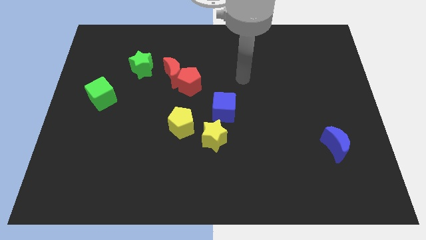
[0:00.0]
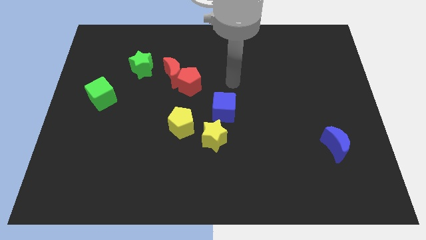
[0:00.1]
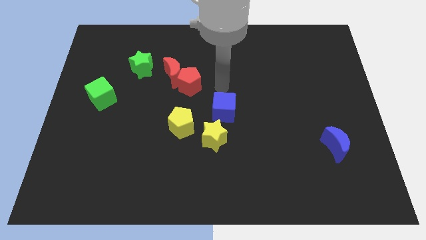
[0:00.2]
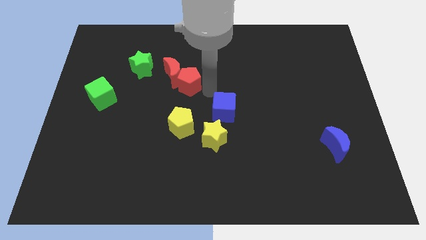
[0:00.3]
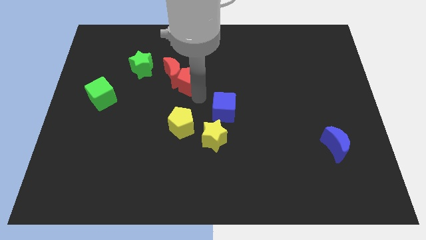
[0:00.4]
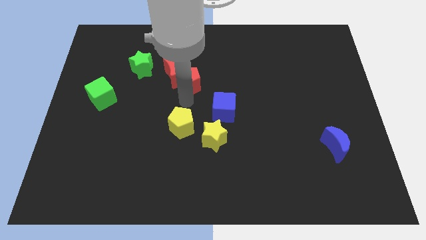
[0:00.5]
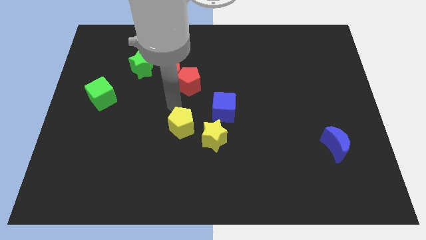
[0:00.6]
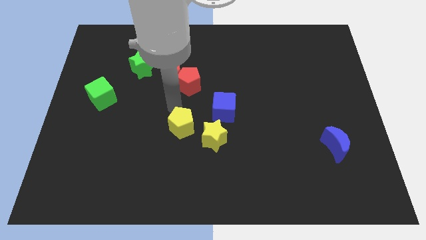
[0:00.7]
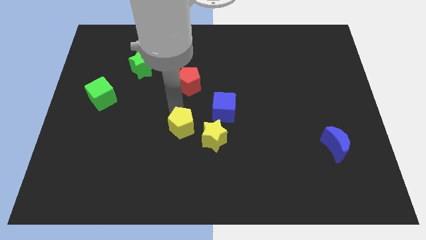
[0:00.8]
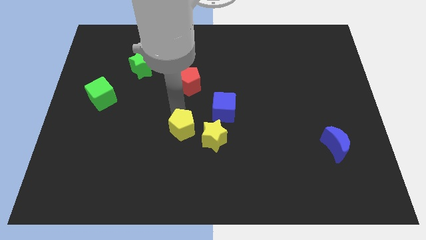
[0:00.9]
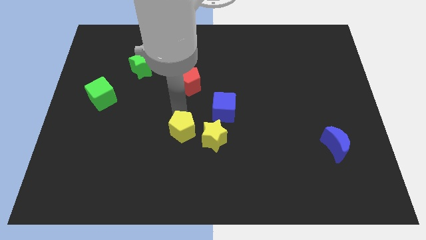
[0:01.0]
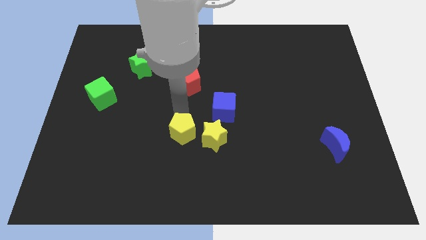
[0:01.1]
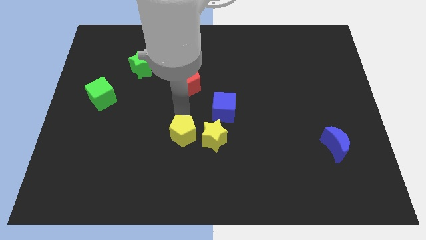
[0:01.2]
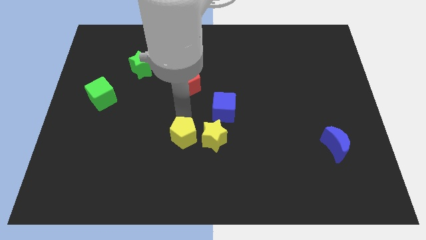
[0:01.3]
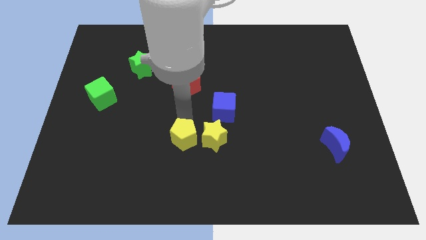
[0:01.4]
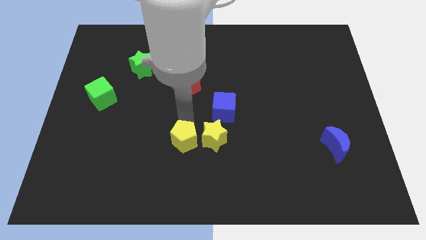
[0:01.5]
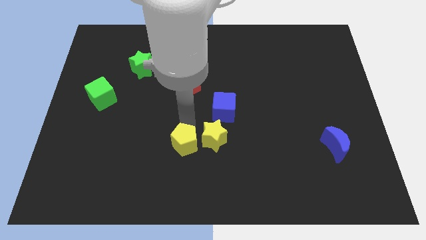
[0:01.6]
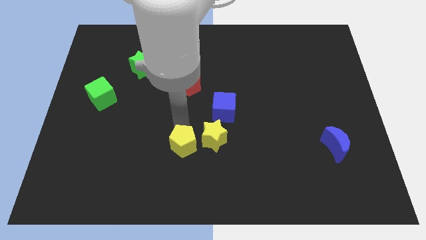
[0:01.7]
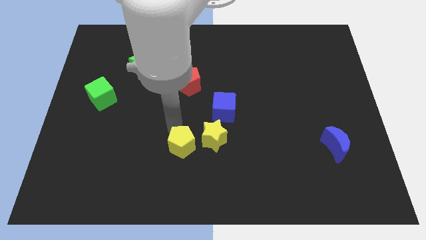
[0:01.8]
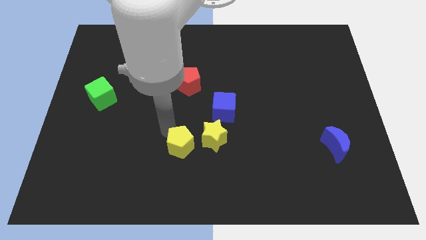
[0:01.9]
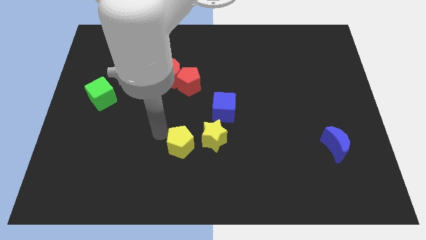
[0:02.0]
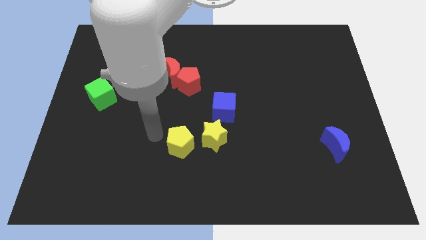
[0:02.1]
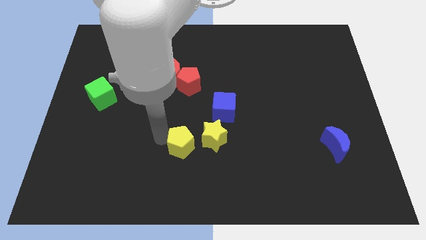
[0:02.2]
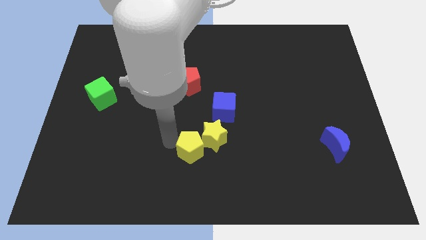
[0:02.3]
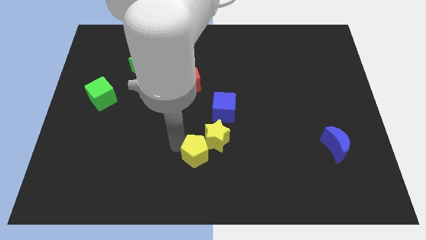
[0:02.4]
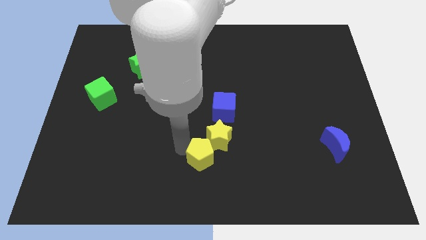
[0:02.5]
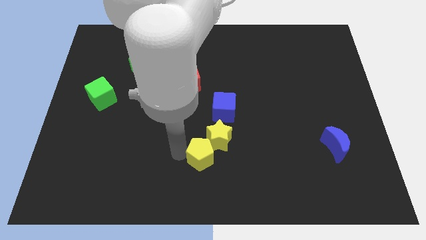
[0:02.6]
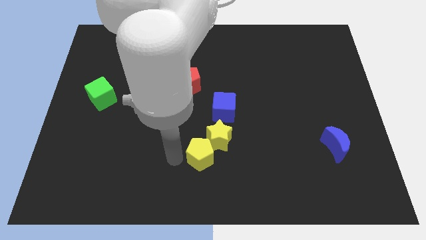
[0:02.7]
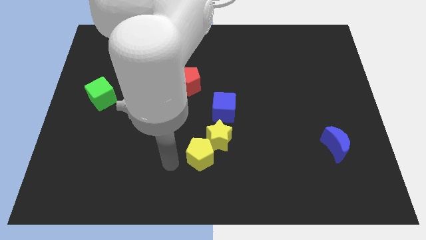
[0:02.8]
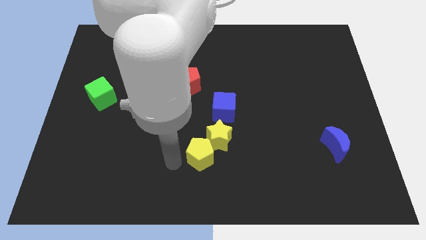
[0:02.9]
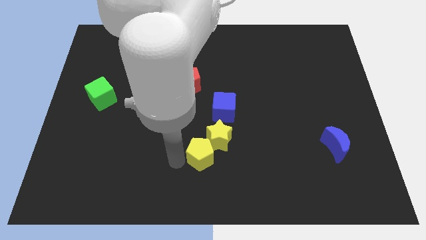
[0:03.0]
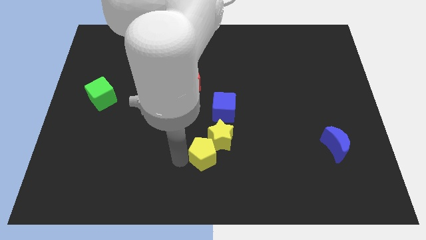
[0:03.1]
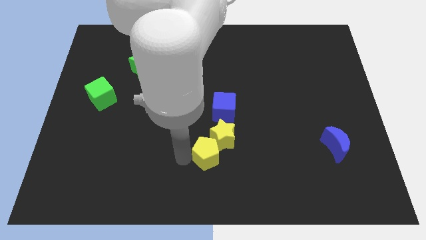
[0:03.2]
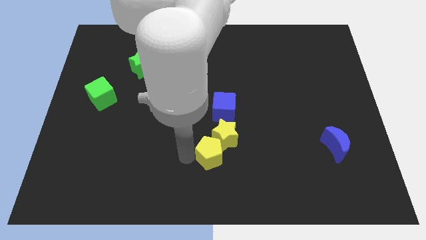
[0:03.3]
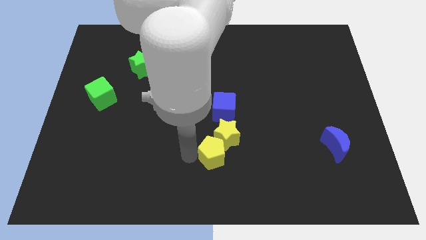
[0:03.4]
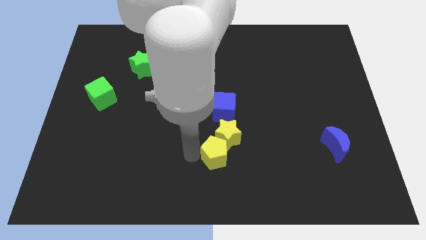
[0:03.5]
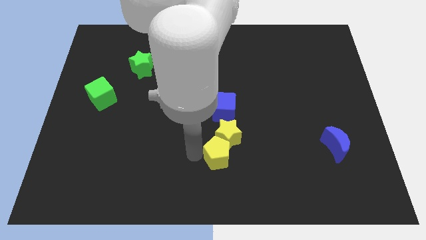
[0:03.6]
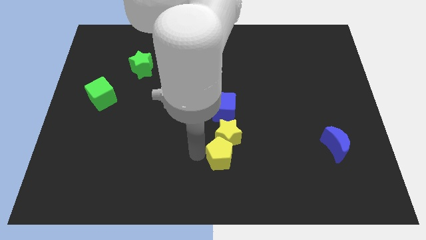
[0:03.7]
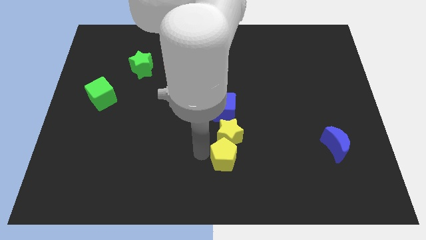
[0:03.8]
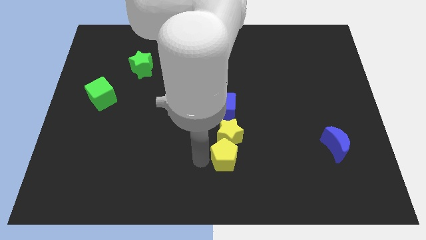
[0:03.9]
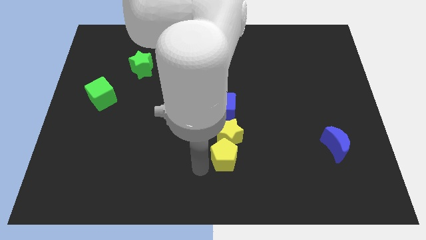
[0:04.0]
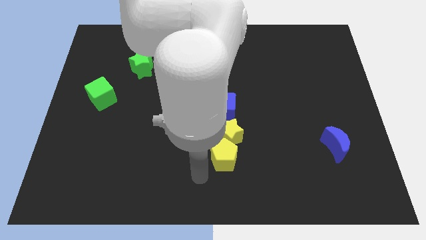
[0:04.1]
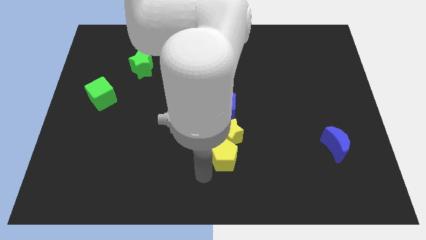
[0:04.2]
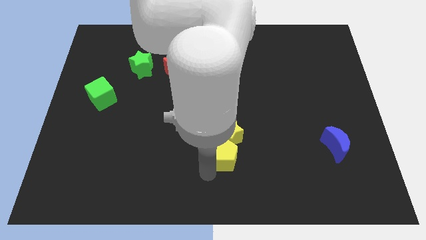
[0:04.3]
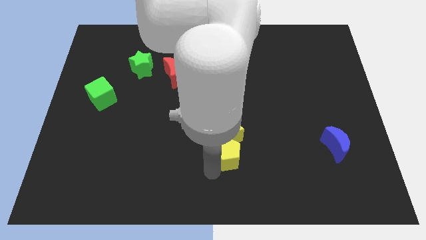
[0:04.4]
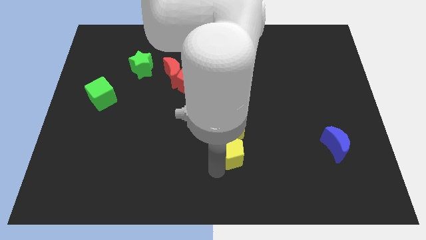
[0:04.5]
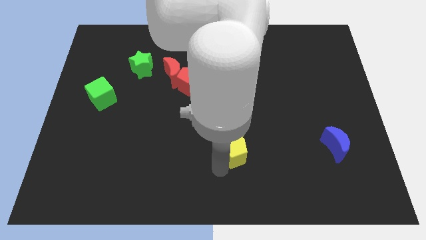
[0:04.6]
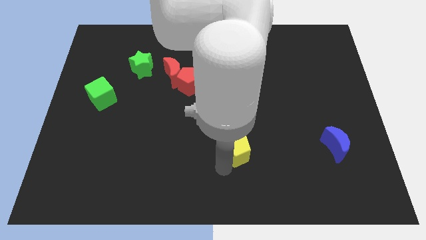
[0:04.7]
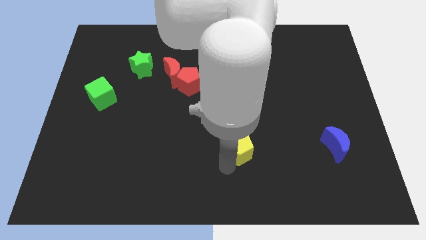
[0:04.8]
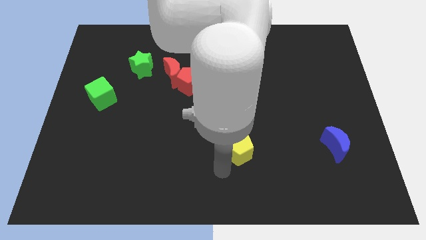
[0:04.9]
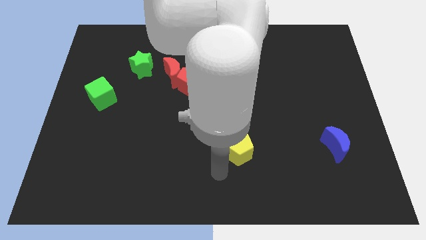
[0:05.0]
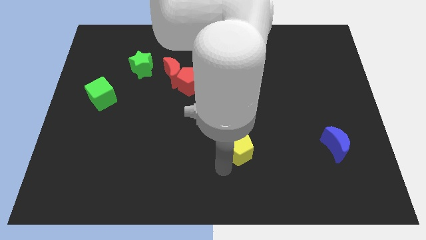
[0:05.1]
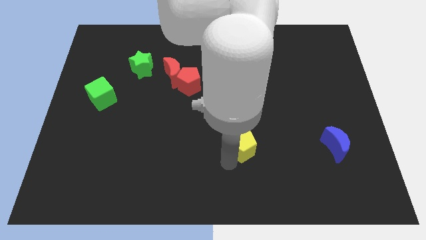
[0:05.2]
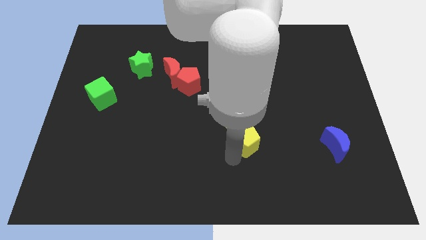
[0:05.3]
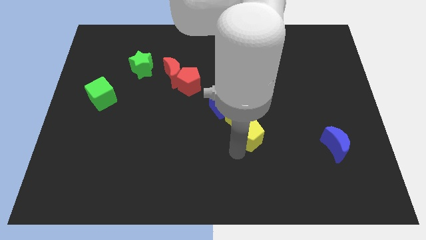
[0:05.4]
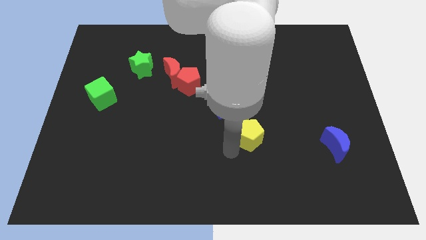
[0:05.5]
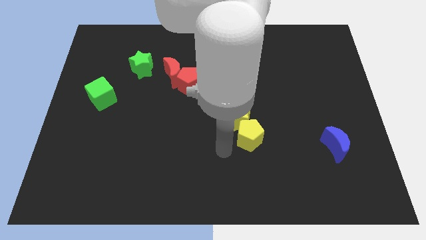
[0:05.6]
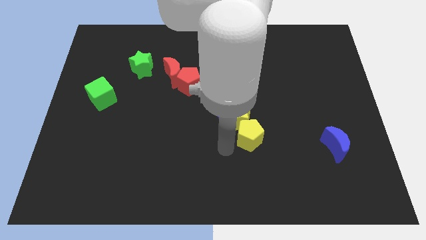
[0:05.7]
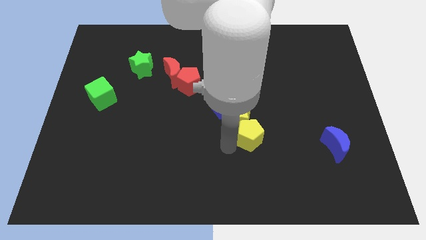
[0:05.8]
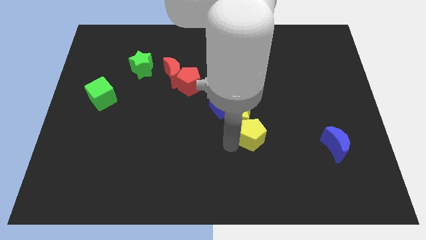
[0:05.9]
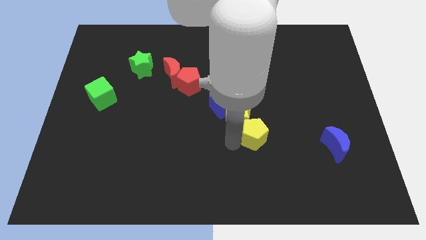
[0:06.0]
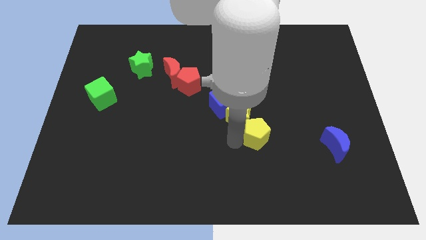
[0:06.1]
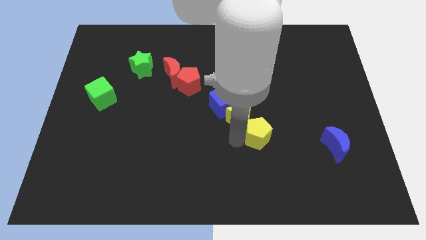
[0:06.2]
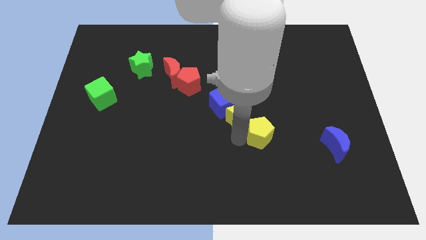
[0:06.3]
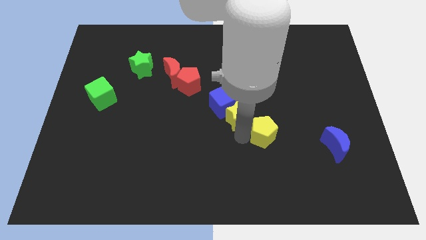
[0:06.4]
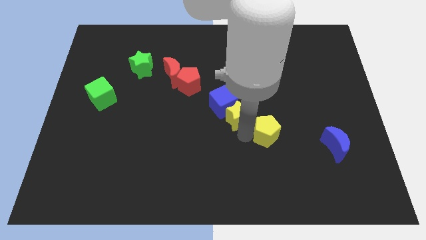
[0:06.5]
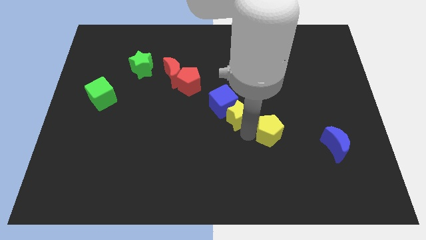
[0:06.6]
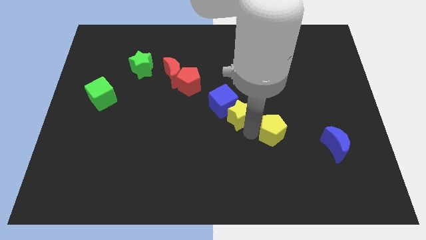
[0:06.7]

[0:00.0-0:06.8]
push the yellow pentagon to the right

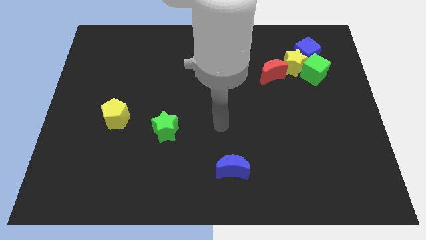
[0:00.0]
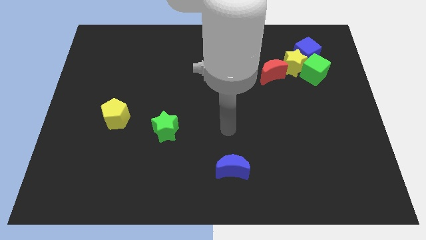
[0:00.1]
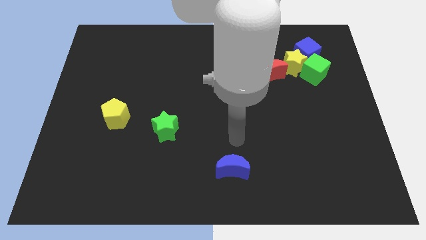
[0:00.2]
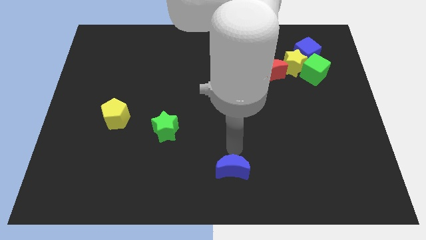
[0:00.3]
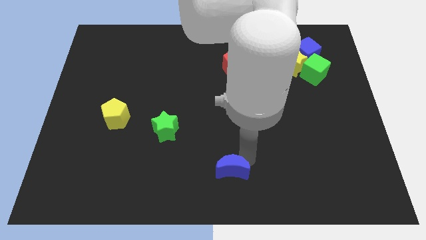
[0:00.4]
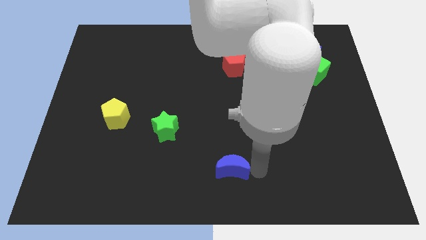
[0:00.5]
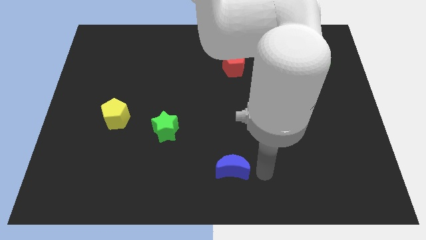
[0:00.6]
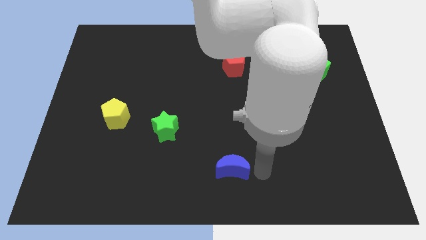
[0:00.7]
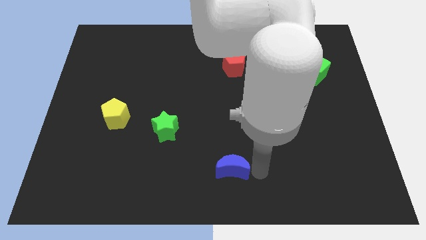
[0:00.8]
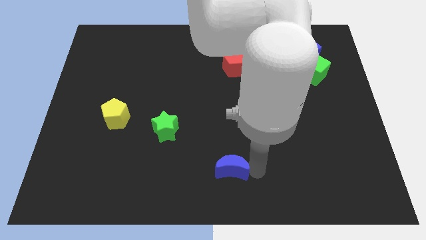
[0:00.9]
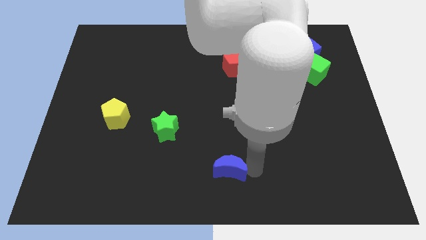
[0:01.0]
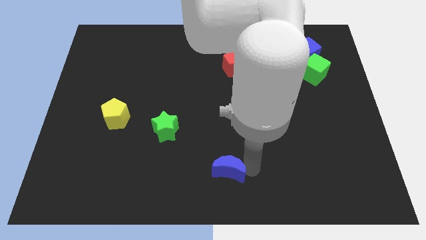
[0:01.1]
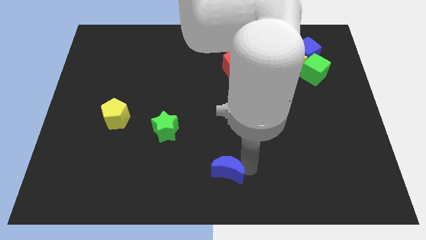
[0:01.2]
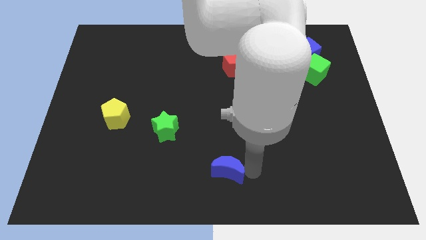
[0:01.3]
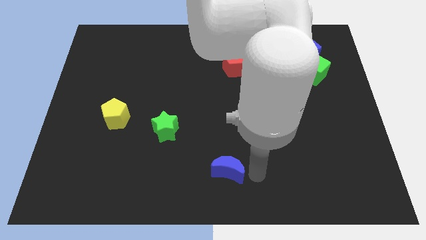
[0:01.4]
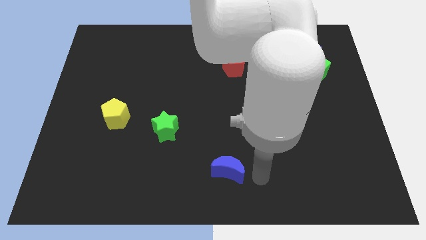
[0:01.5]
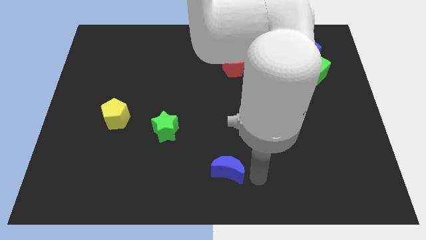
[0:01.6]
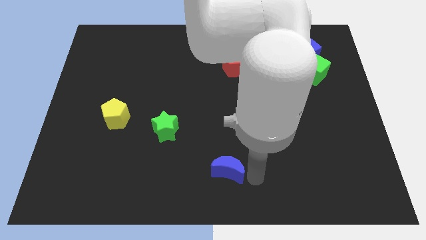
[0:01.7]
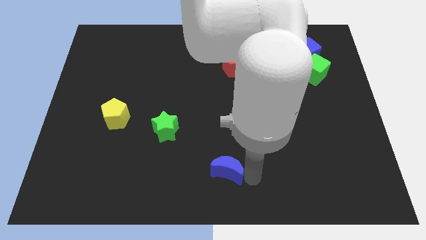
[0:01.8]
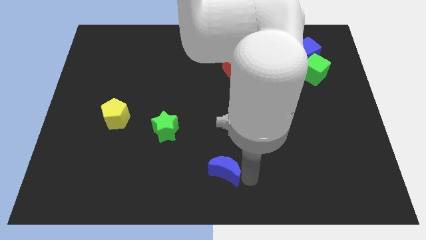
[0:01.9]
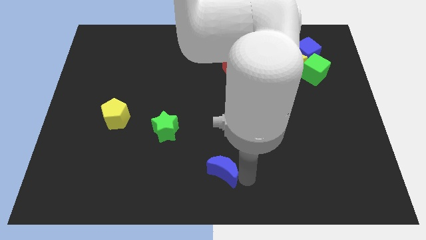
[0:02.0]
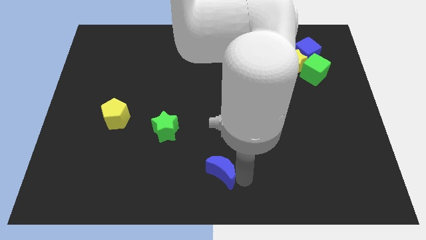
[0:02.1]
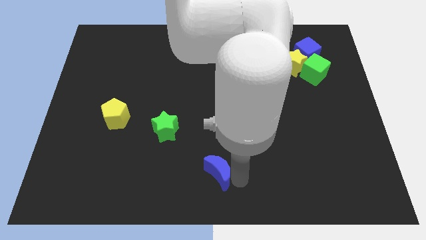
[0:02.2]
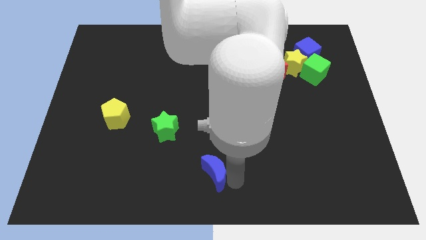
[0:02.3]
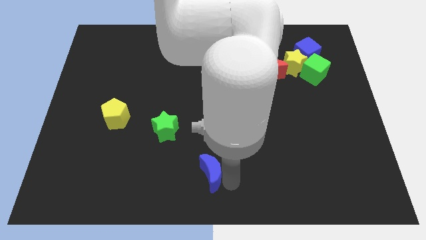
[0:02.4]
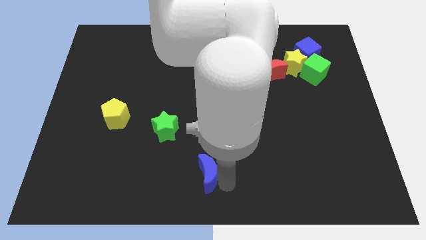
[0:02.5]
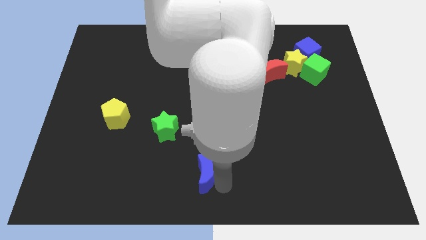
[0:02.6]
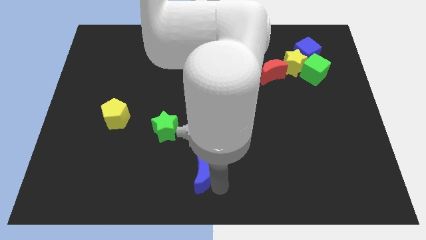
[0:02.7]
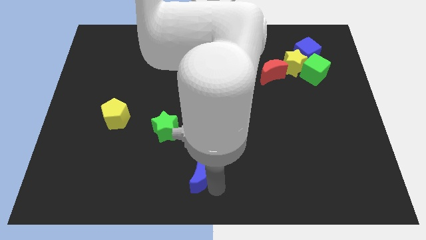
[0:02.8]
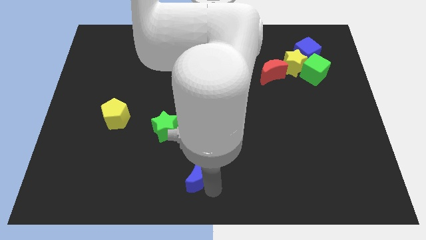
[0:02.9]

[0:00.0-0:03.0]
push the blue moon a little to the left
